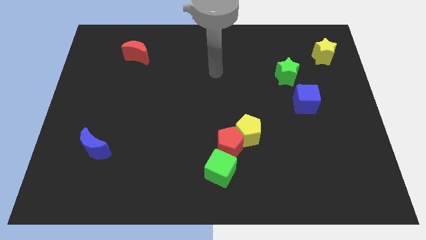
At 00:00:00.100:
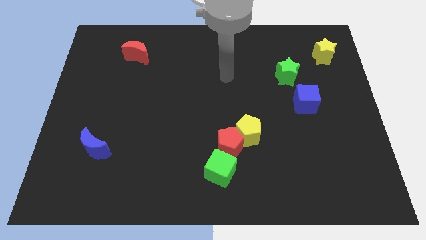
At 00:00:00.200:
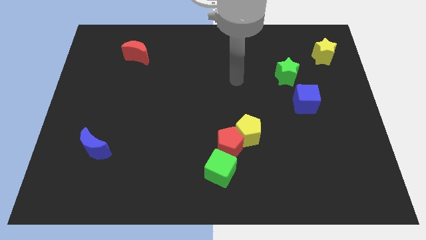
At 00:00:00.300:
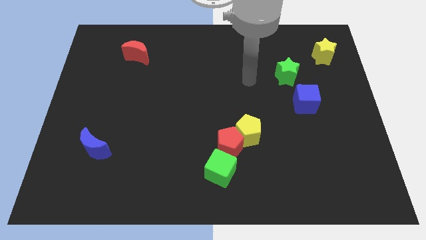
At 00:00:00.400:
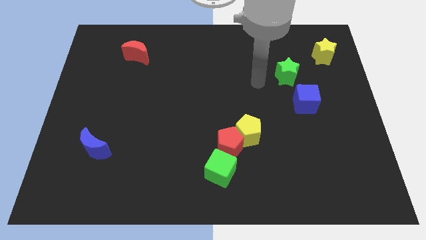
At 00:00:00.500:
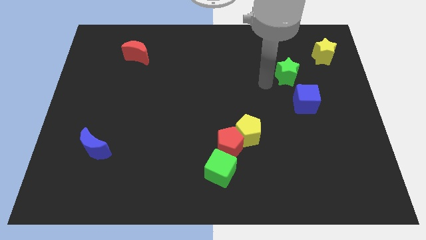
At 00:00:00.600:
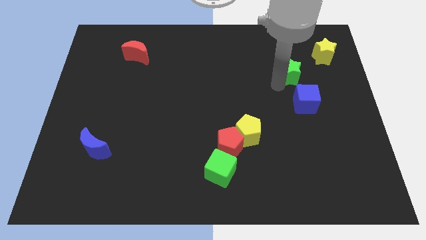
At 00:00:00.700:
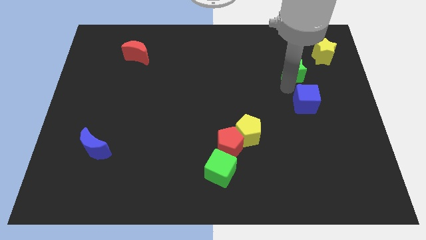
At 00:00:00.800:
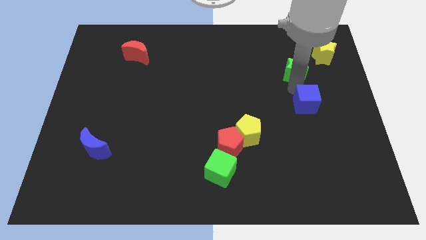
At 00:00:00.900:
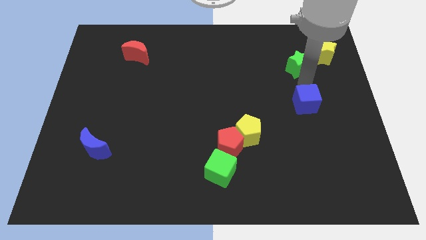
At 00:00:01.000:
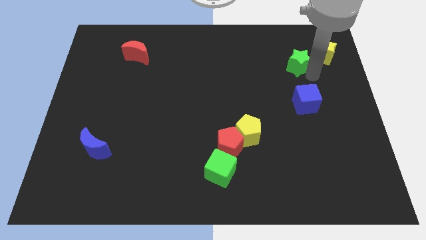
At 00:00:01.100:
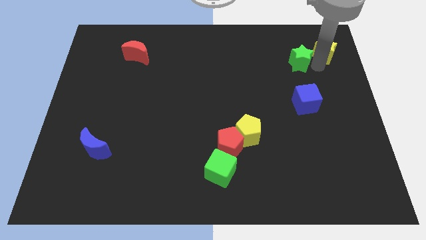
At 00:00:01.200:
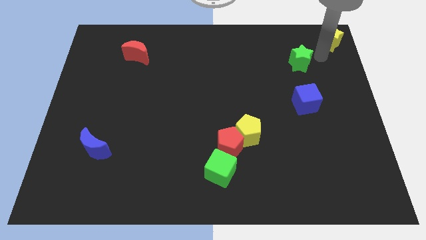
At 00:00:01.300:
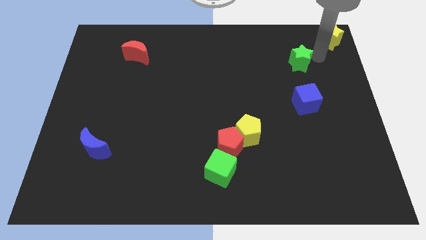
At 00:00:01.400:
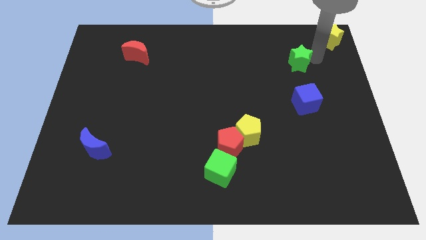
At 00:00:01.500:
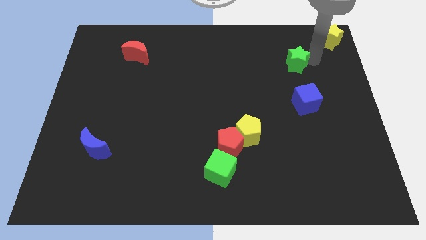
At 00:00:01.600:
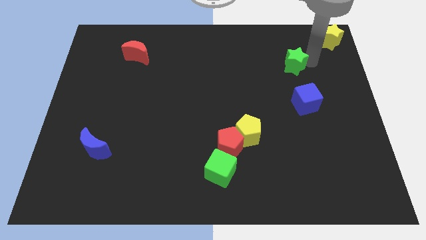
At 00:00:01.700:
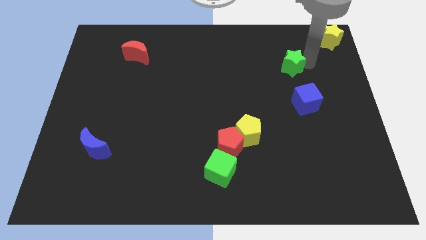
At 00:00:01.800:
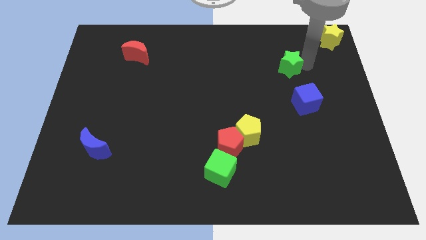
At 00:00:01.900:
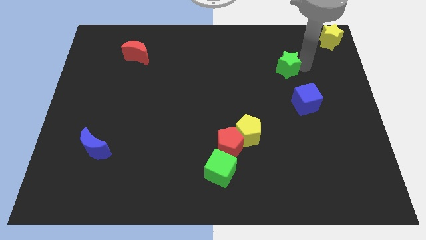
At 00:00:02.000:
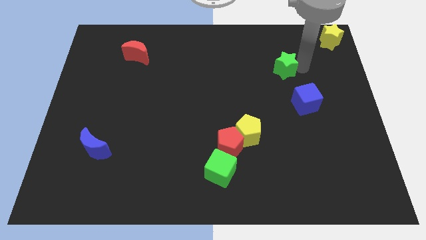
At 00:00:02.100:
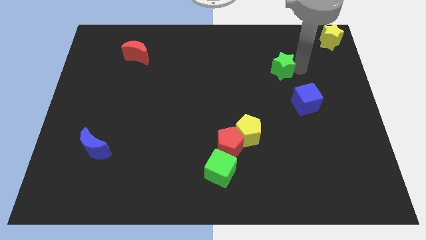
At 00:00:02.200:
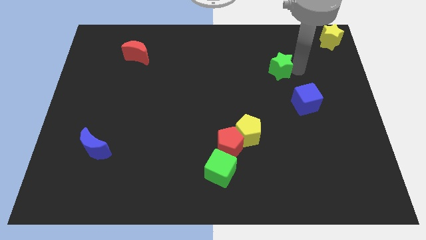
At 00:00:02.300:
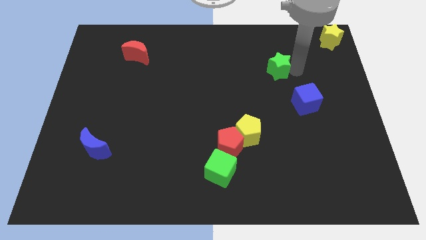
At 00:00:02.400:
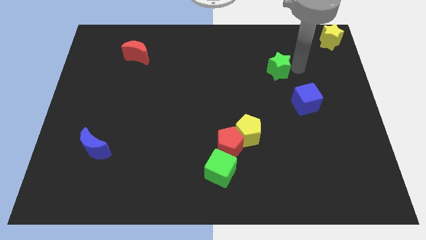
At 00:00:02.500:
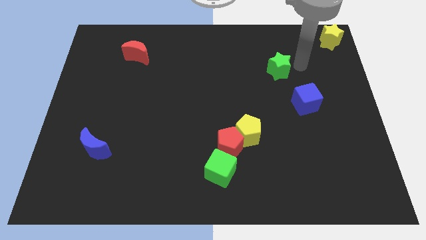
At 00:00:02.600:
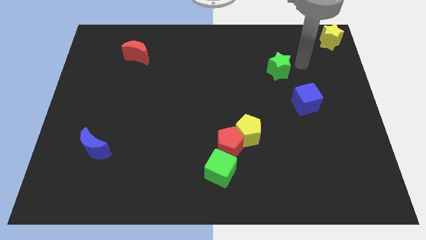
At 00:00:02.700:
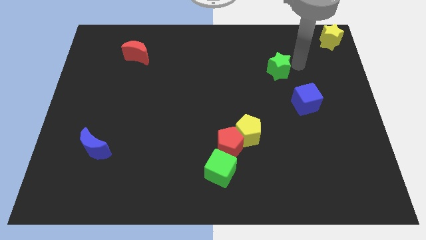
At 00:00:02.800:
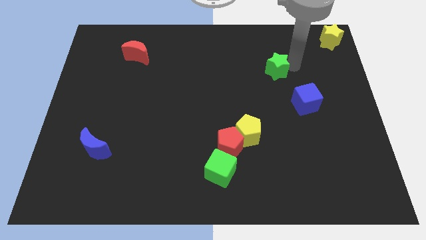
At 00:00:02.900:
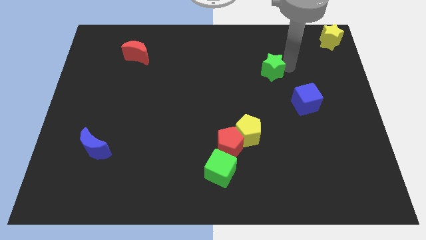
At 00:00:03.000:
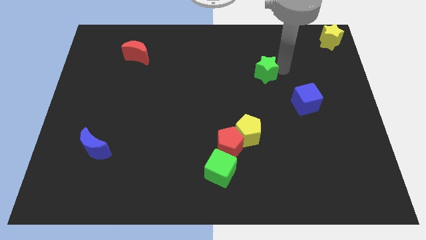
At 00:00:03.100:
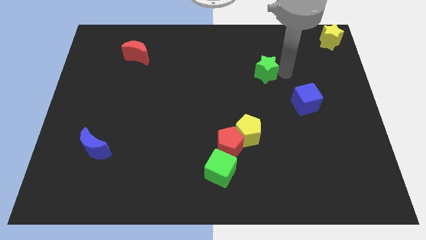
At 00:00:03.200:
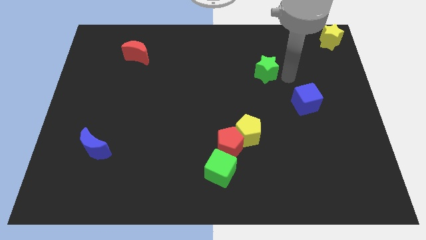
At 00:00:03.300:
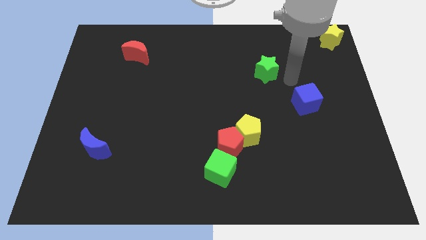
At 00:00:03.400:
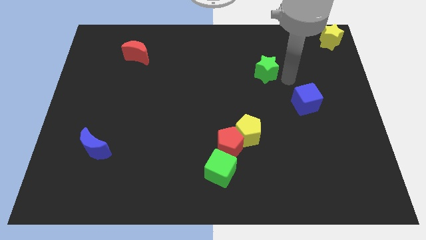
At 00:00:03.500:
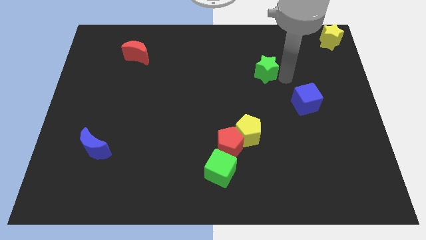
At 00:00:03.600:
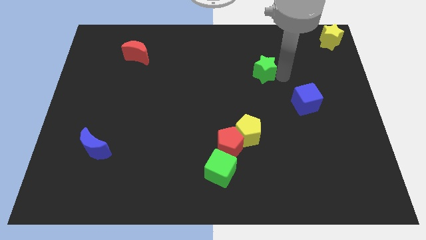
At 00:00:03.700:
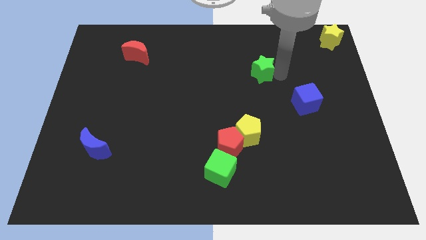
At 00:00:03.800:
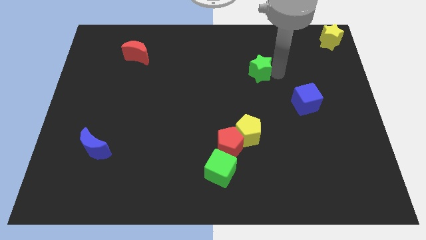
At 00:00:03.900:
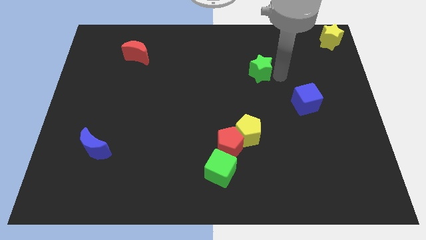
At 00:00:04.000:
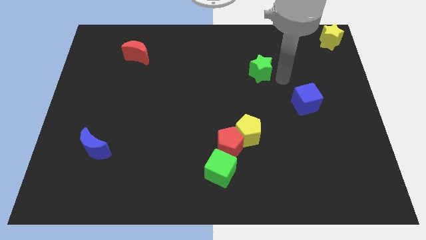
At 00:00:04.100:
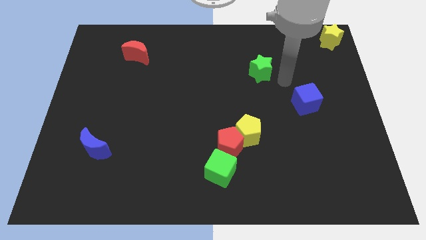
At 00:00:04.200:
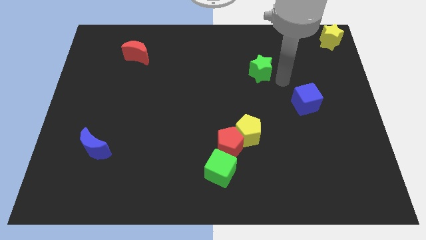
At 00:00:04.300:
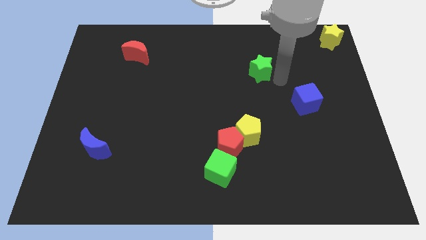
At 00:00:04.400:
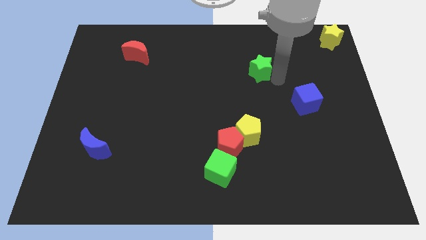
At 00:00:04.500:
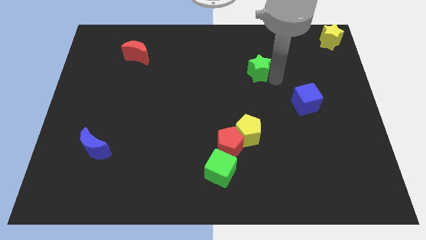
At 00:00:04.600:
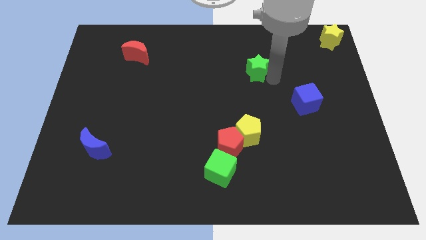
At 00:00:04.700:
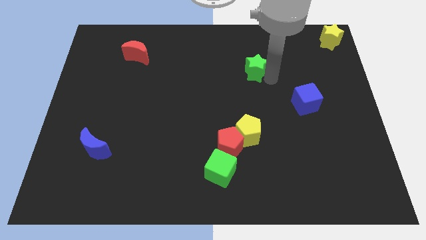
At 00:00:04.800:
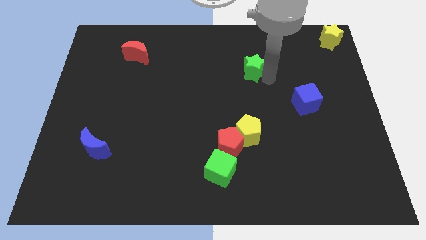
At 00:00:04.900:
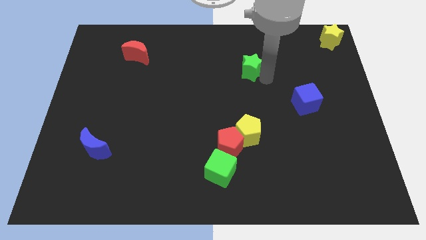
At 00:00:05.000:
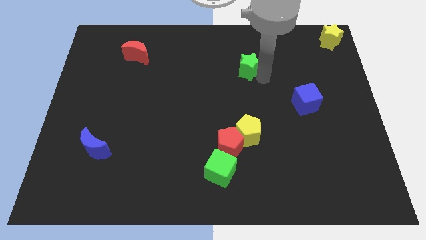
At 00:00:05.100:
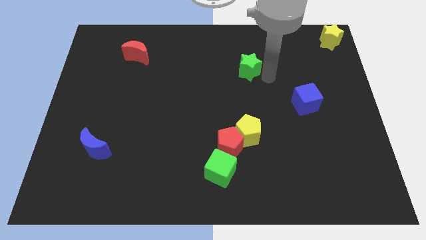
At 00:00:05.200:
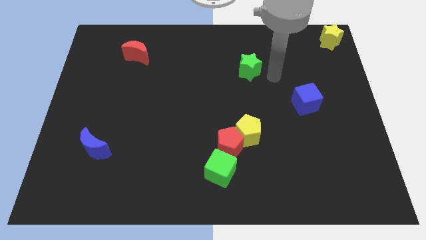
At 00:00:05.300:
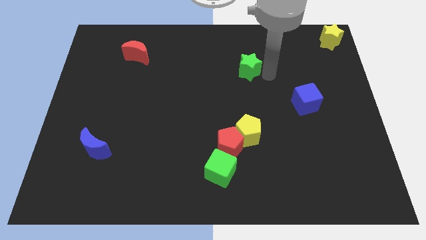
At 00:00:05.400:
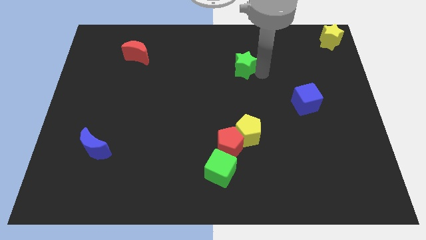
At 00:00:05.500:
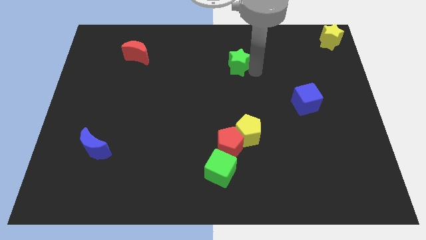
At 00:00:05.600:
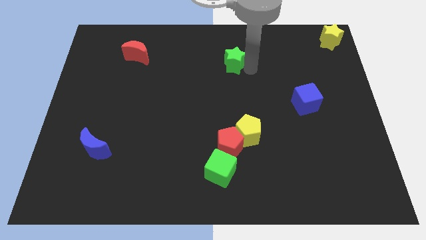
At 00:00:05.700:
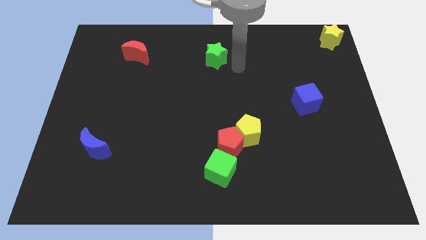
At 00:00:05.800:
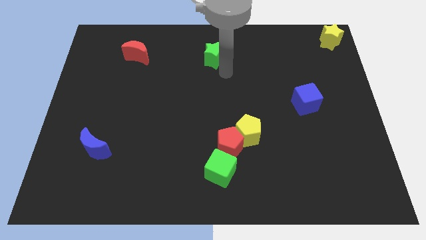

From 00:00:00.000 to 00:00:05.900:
put the green star to the towards your base

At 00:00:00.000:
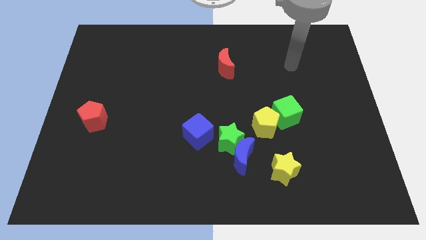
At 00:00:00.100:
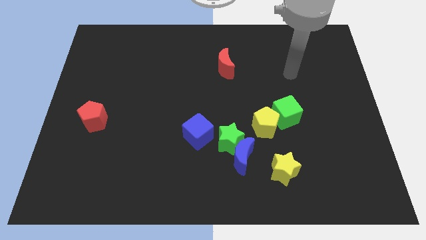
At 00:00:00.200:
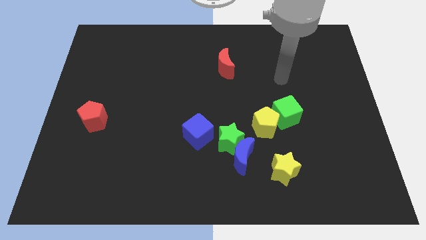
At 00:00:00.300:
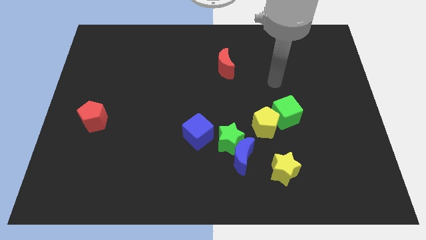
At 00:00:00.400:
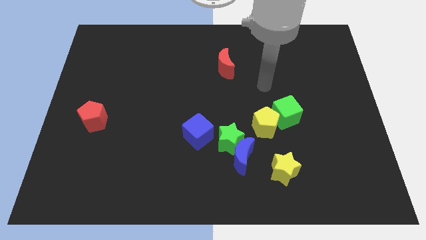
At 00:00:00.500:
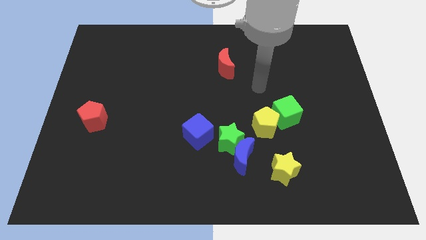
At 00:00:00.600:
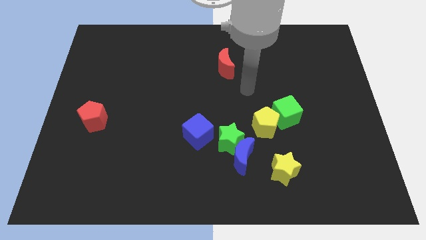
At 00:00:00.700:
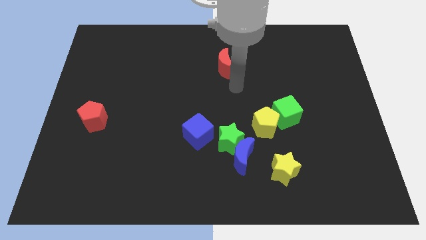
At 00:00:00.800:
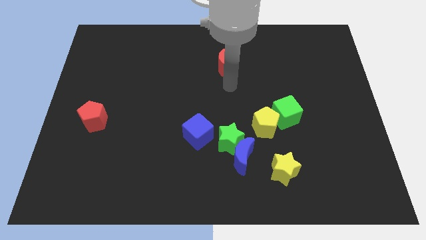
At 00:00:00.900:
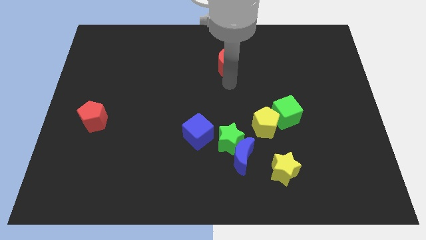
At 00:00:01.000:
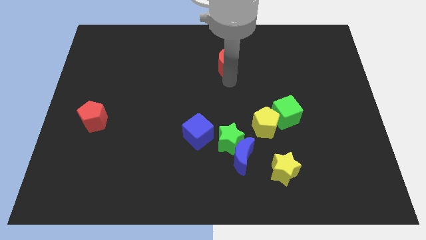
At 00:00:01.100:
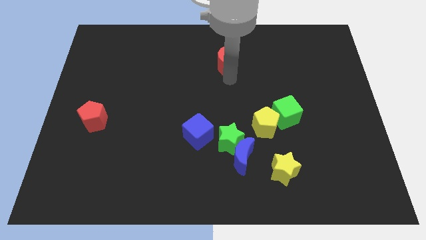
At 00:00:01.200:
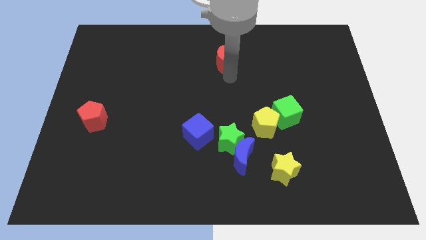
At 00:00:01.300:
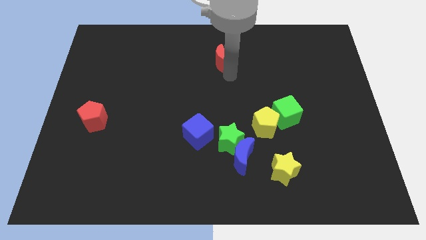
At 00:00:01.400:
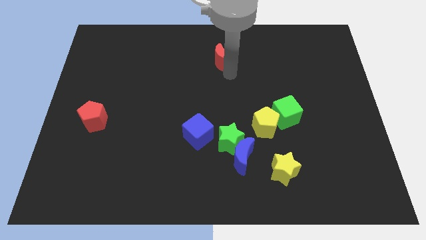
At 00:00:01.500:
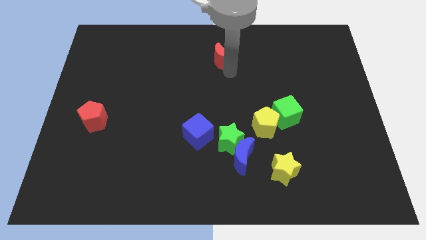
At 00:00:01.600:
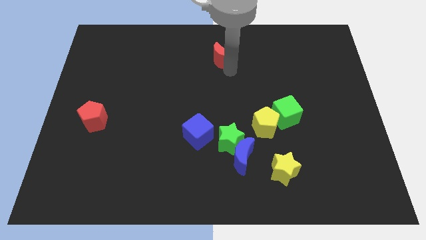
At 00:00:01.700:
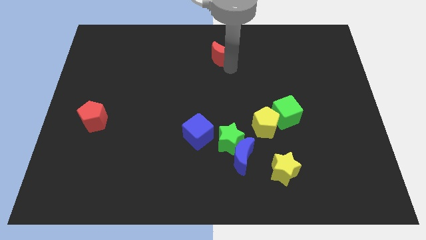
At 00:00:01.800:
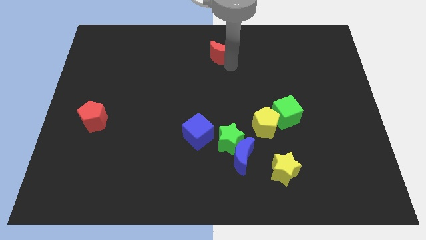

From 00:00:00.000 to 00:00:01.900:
put the red moon to the top
